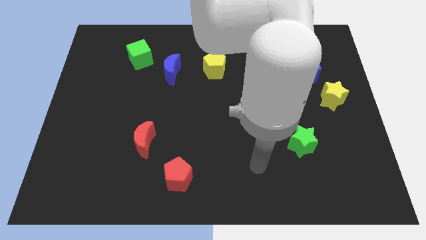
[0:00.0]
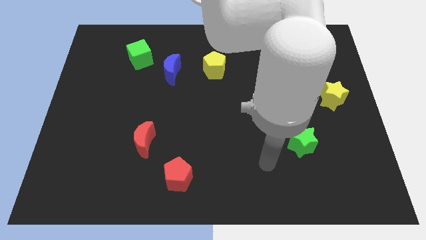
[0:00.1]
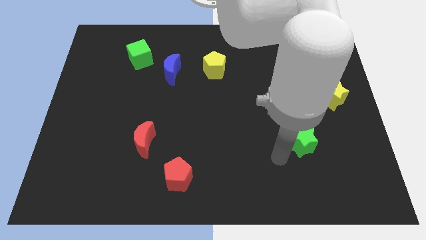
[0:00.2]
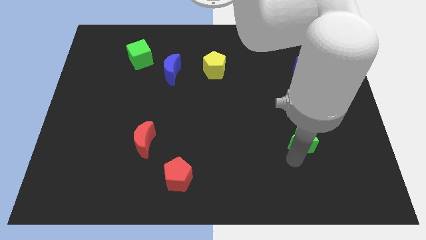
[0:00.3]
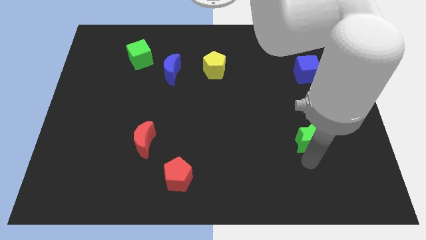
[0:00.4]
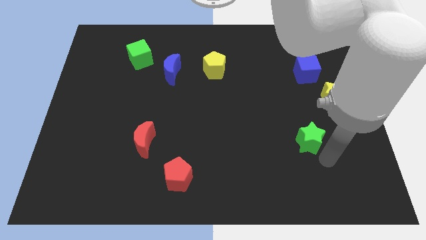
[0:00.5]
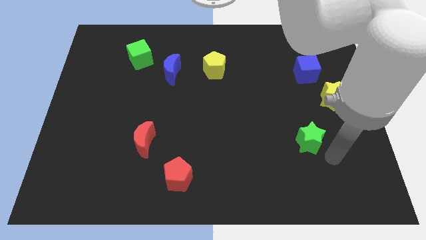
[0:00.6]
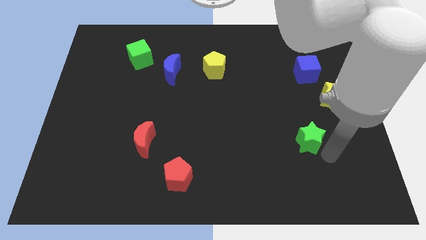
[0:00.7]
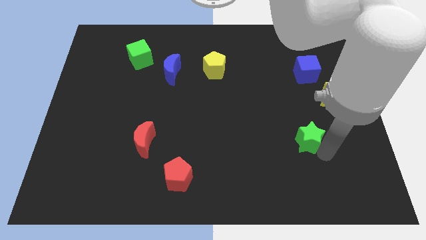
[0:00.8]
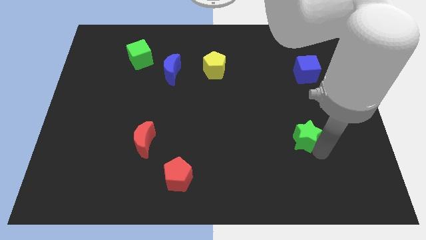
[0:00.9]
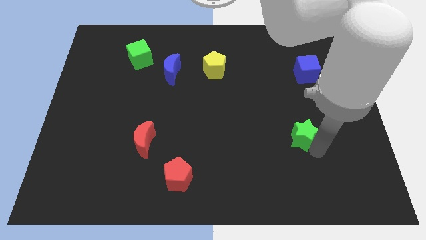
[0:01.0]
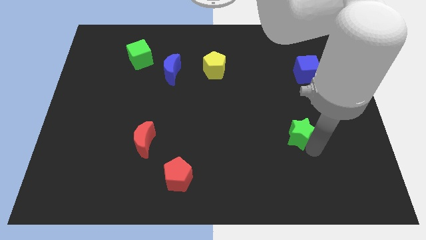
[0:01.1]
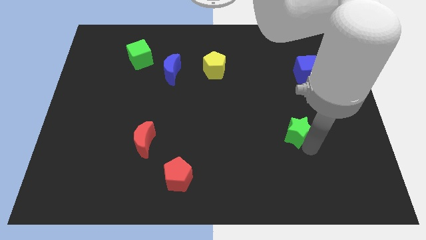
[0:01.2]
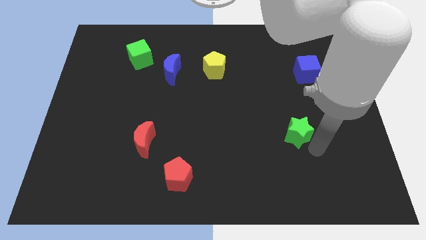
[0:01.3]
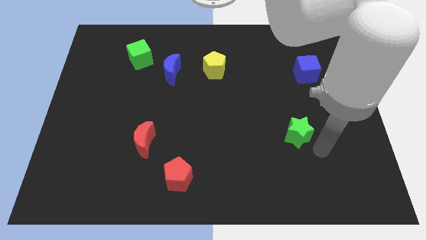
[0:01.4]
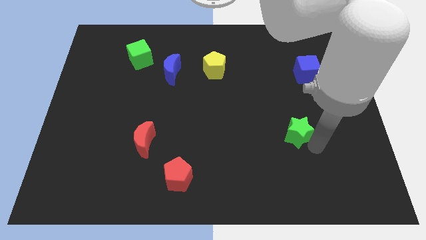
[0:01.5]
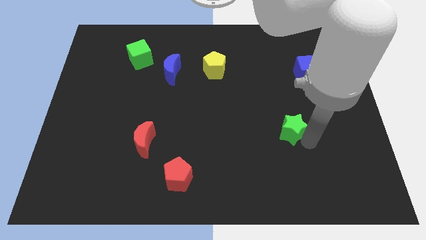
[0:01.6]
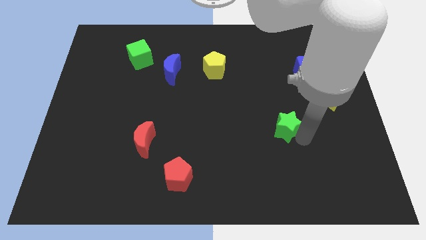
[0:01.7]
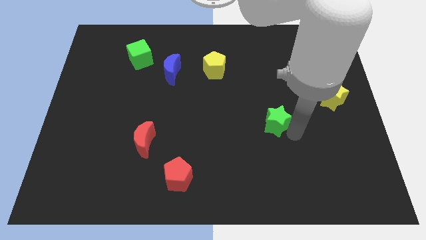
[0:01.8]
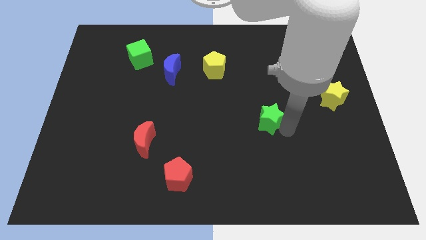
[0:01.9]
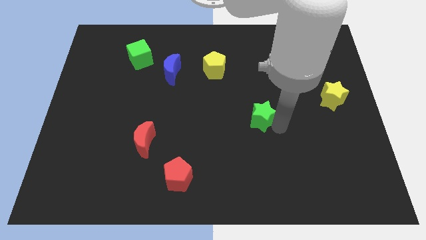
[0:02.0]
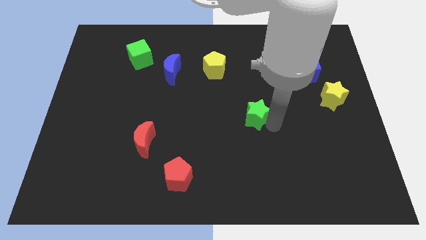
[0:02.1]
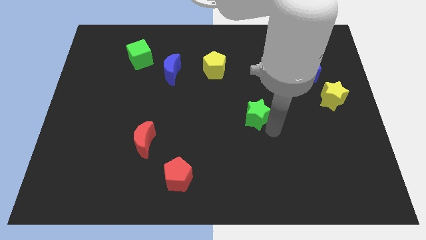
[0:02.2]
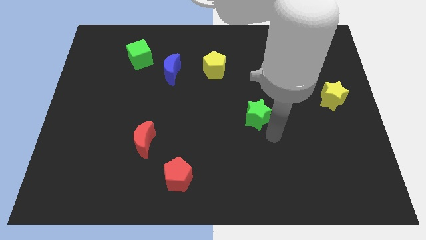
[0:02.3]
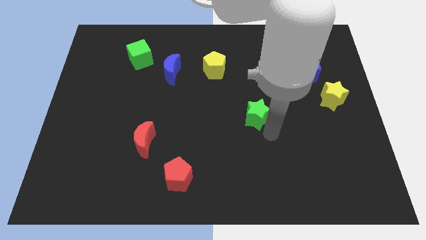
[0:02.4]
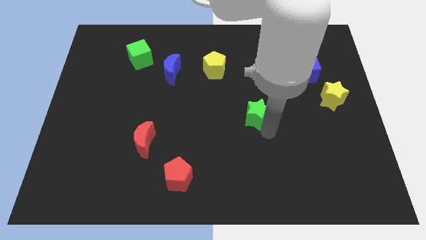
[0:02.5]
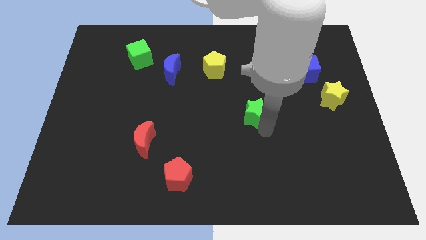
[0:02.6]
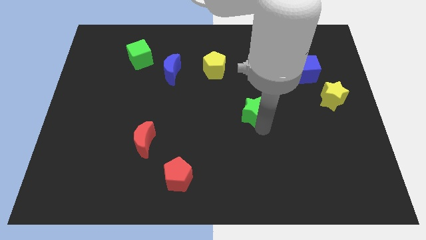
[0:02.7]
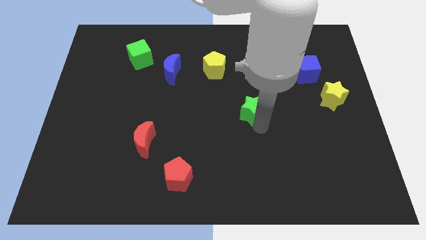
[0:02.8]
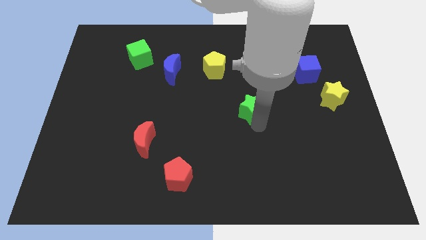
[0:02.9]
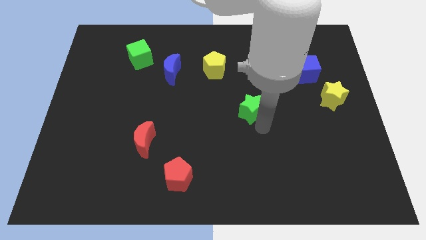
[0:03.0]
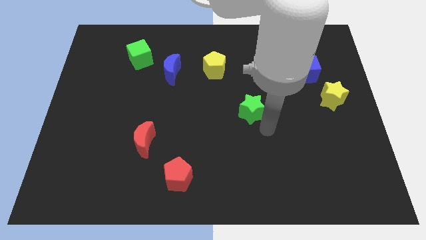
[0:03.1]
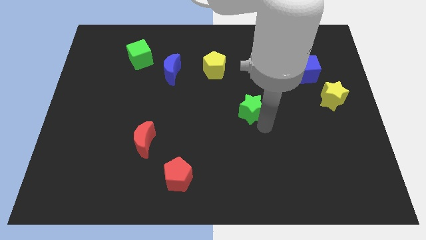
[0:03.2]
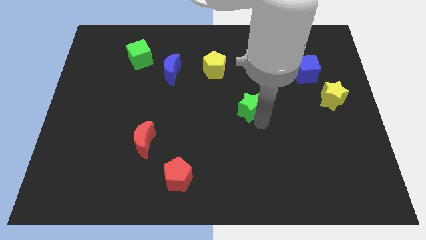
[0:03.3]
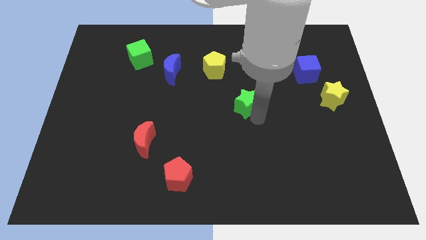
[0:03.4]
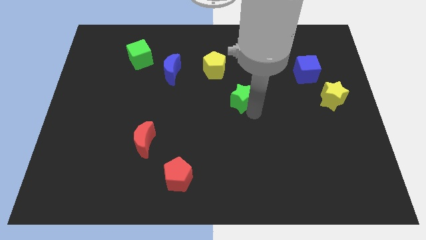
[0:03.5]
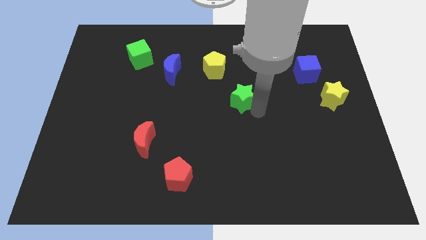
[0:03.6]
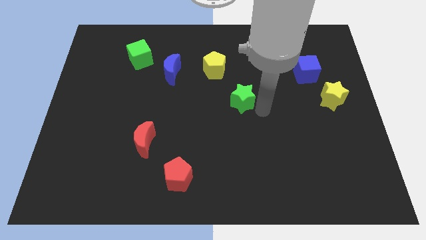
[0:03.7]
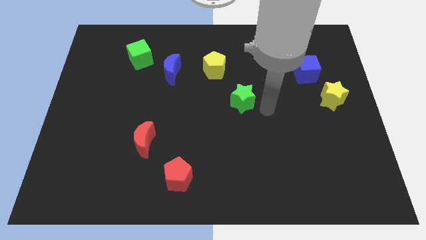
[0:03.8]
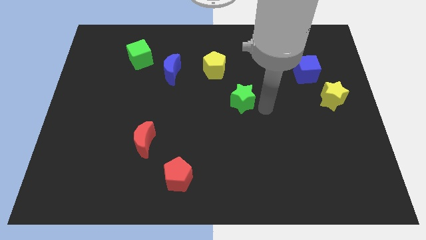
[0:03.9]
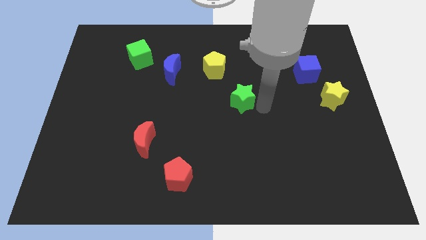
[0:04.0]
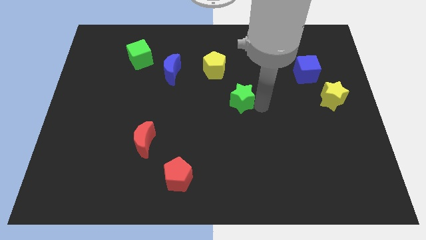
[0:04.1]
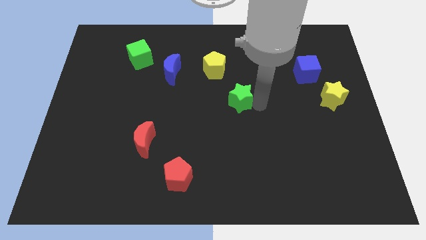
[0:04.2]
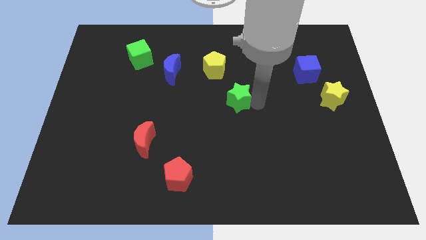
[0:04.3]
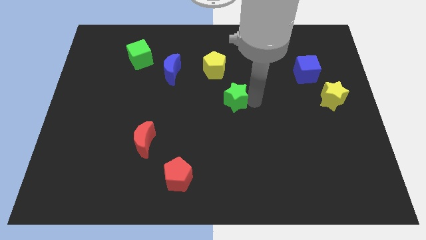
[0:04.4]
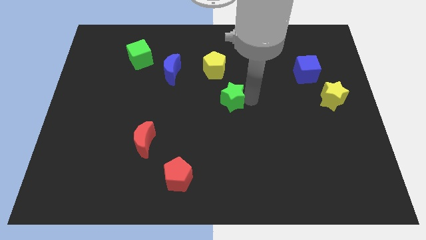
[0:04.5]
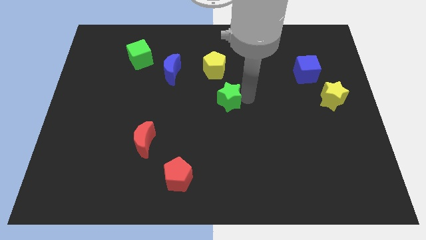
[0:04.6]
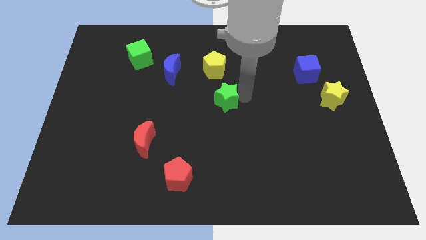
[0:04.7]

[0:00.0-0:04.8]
slide the green star diagonally upwards and to the left

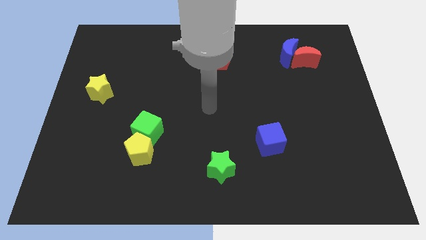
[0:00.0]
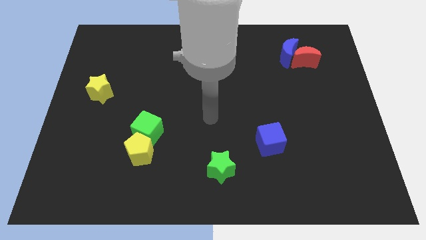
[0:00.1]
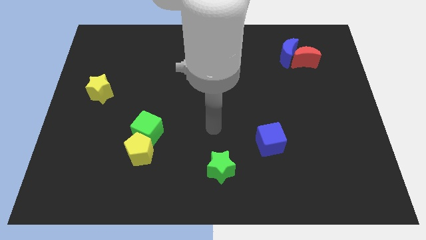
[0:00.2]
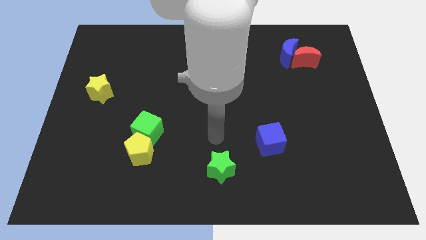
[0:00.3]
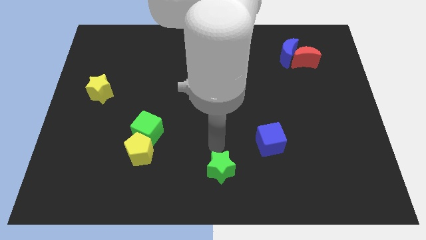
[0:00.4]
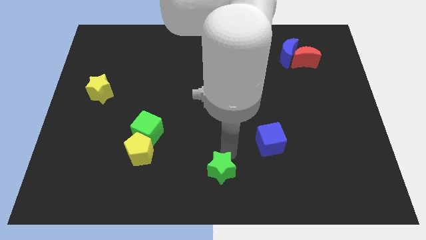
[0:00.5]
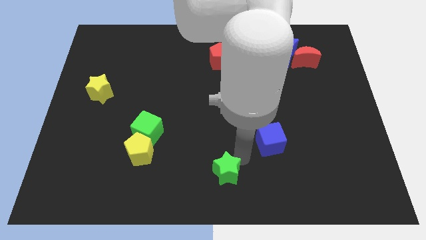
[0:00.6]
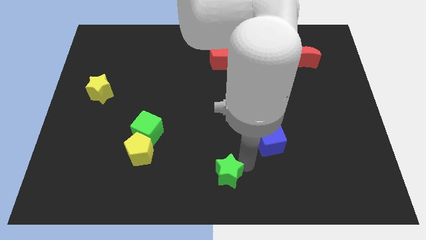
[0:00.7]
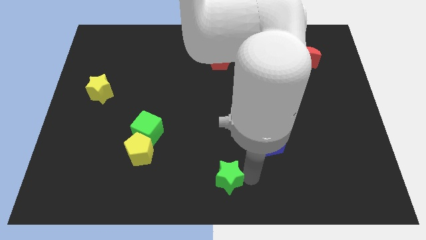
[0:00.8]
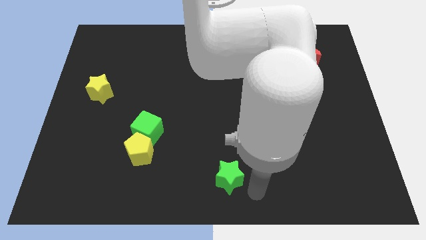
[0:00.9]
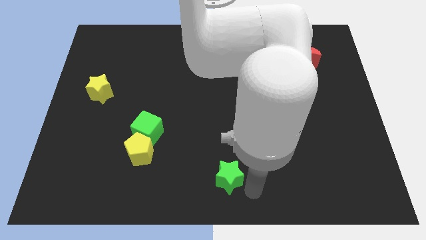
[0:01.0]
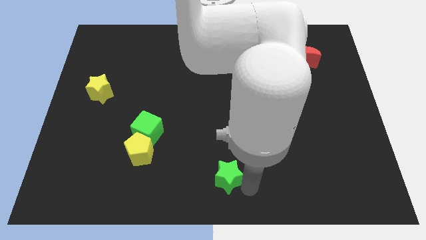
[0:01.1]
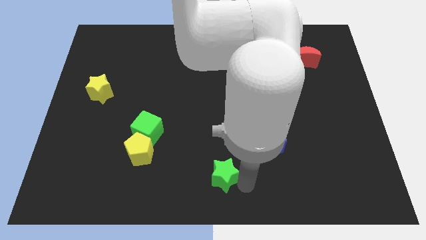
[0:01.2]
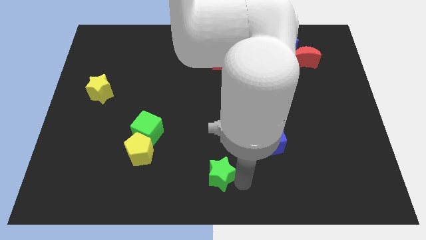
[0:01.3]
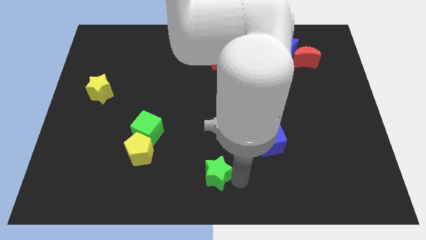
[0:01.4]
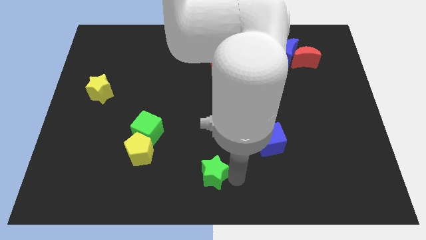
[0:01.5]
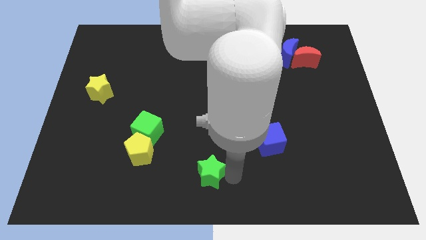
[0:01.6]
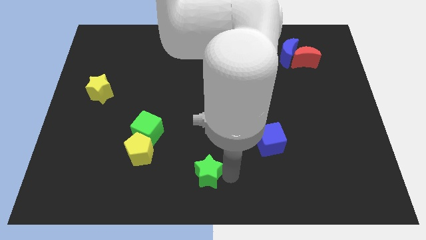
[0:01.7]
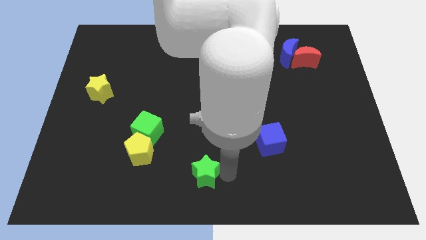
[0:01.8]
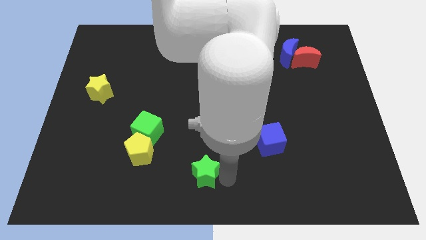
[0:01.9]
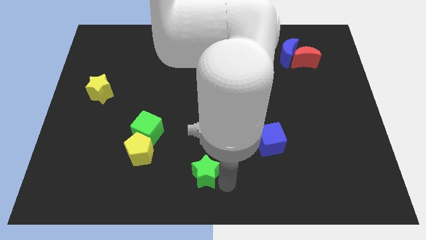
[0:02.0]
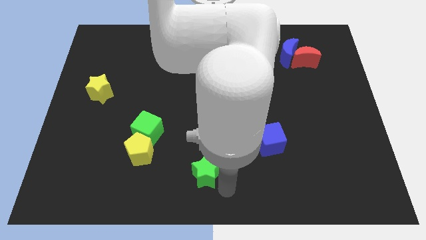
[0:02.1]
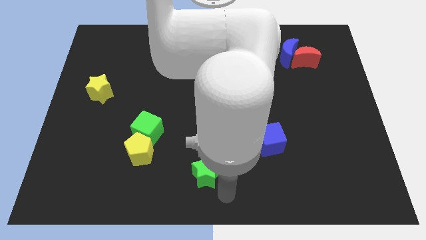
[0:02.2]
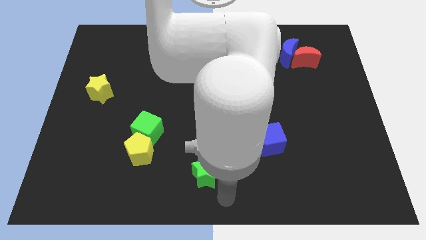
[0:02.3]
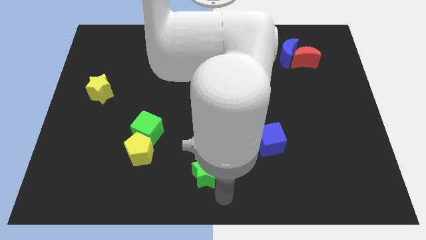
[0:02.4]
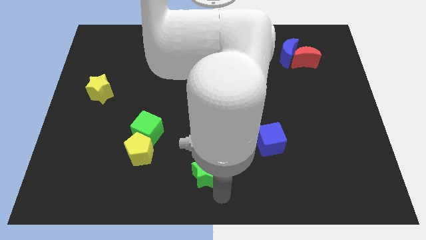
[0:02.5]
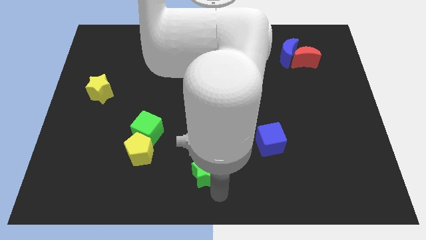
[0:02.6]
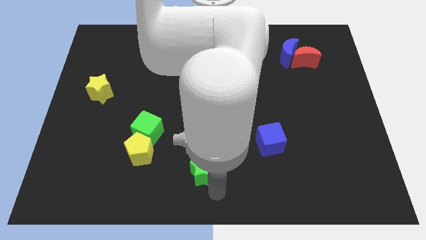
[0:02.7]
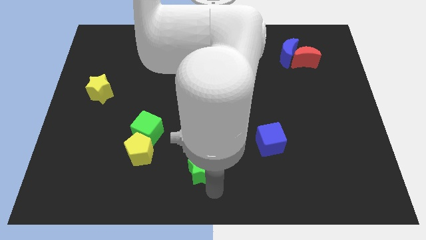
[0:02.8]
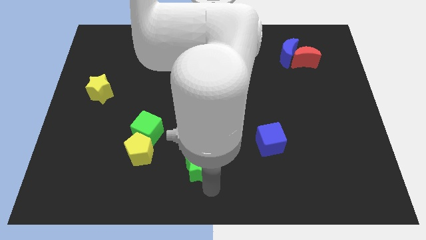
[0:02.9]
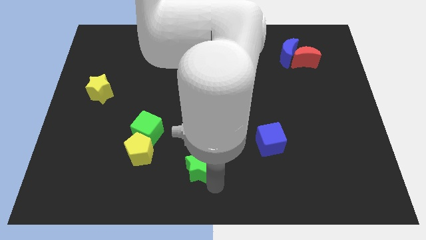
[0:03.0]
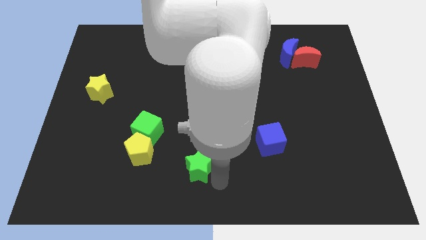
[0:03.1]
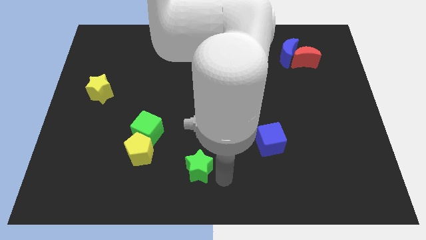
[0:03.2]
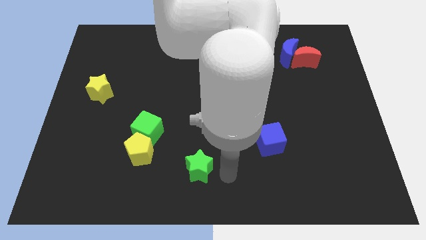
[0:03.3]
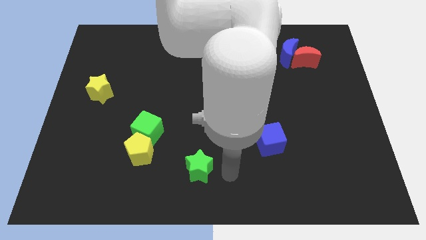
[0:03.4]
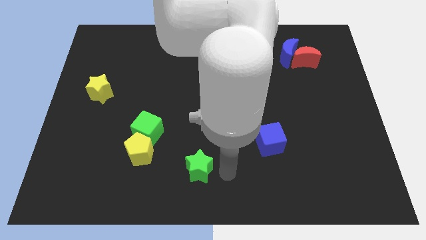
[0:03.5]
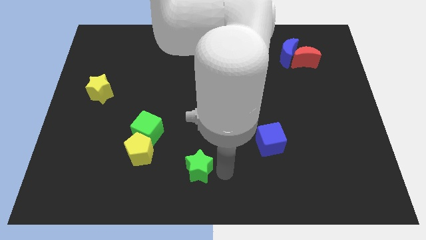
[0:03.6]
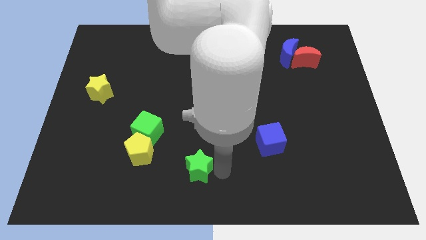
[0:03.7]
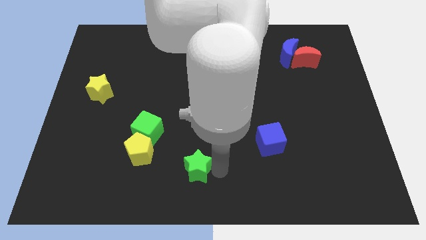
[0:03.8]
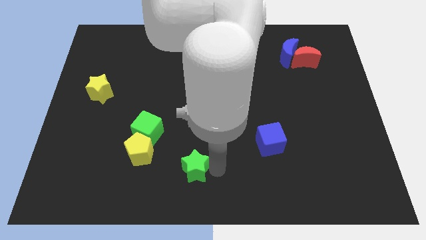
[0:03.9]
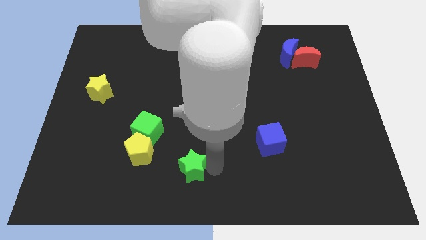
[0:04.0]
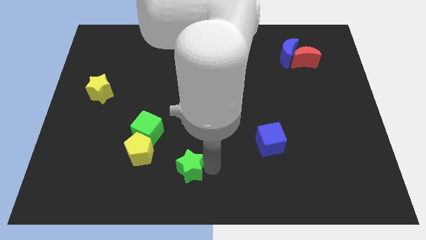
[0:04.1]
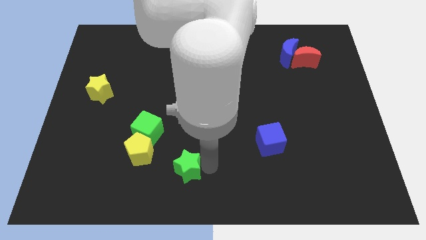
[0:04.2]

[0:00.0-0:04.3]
slide the green star left a little
